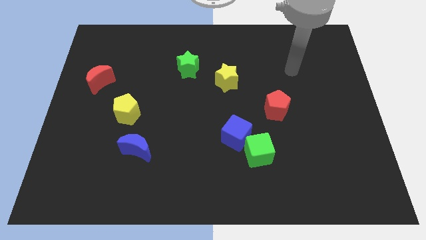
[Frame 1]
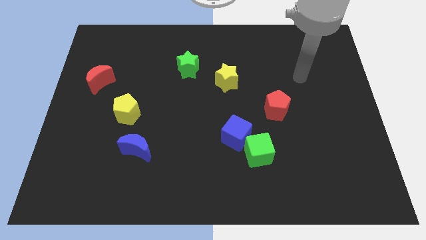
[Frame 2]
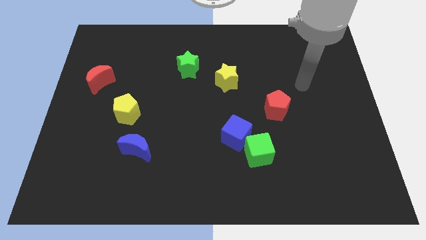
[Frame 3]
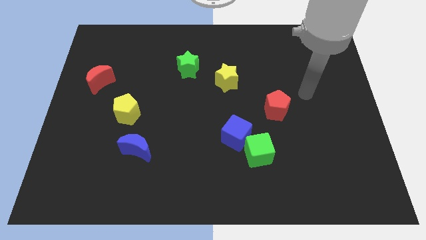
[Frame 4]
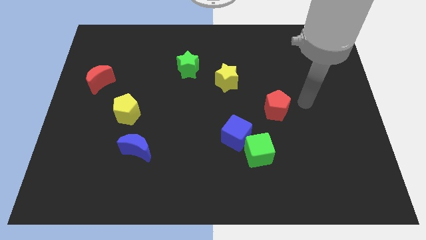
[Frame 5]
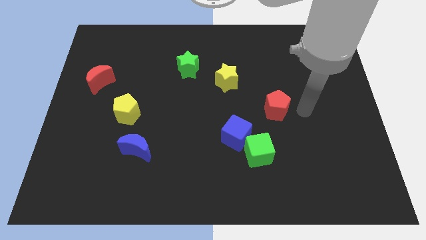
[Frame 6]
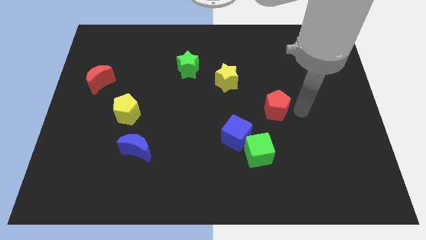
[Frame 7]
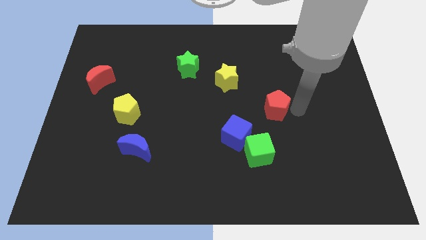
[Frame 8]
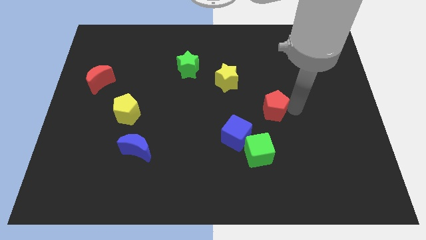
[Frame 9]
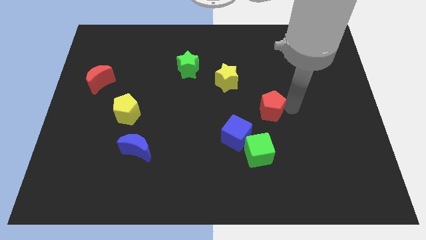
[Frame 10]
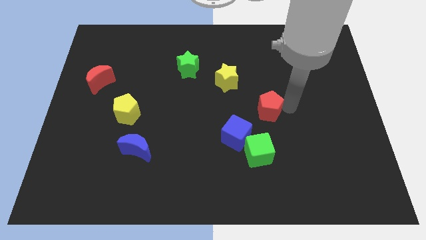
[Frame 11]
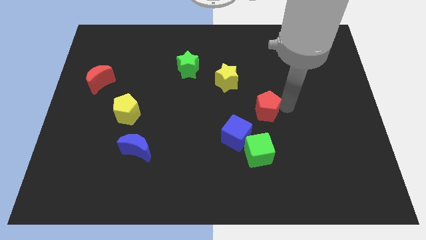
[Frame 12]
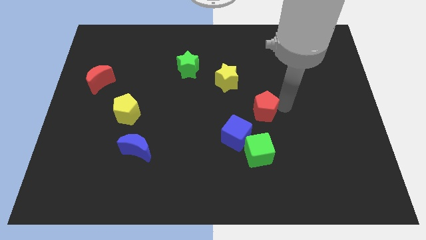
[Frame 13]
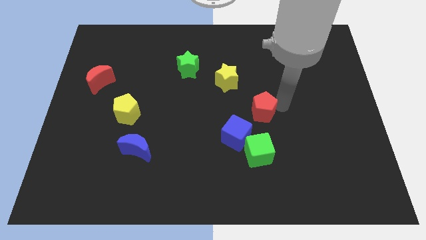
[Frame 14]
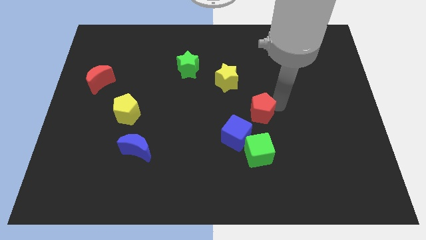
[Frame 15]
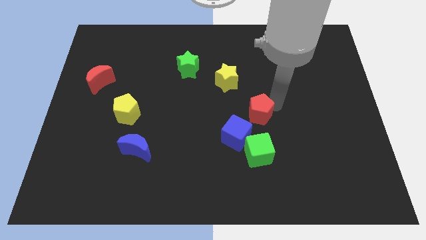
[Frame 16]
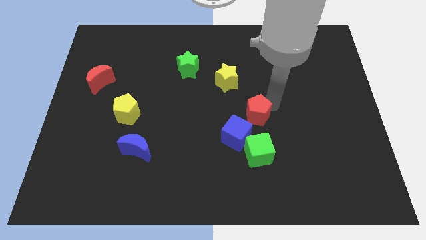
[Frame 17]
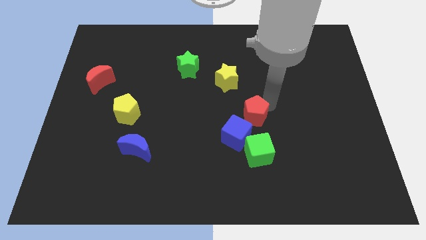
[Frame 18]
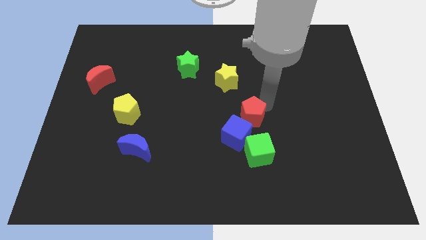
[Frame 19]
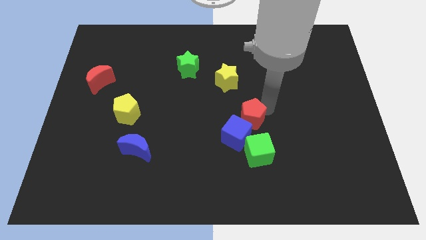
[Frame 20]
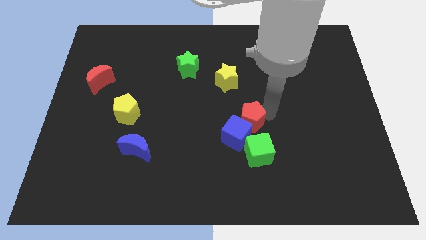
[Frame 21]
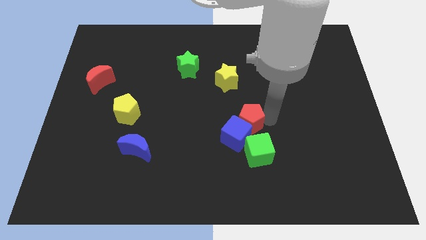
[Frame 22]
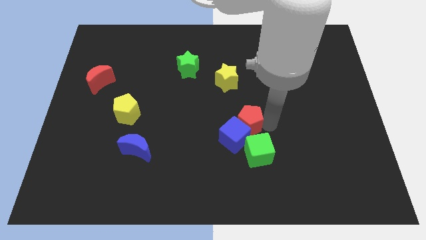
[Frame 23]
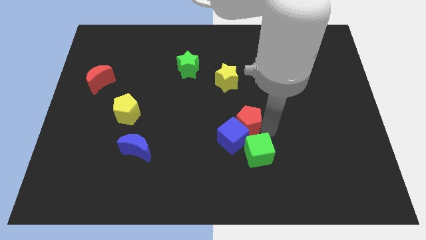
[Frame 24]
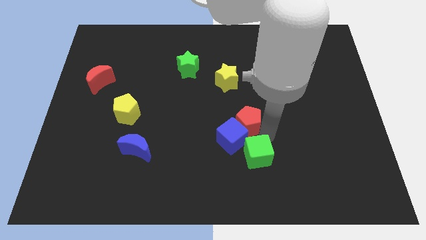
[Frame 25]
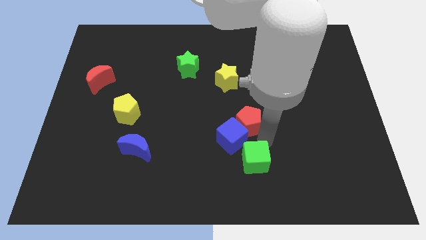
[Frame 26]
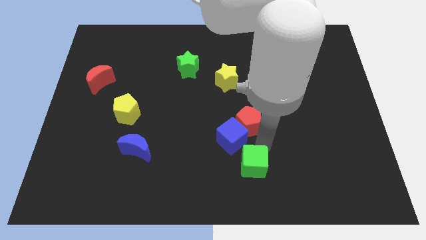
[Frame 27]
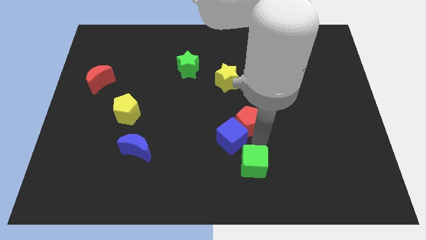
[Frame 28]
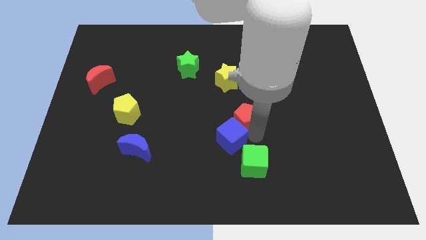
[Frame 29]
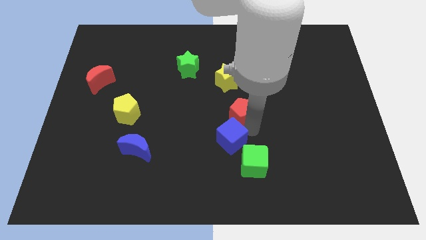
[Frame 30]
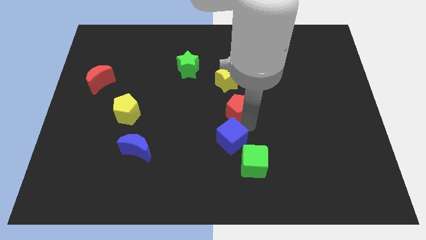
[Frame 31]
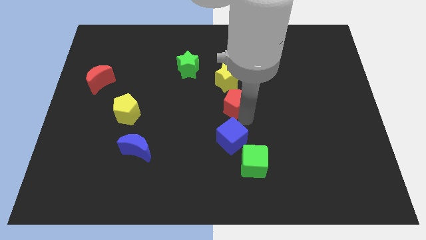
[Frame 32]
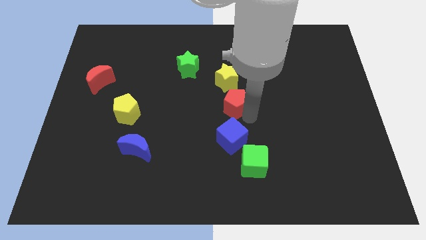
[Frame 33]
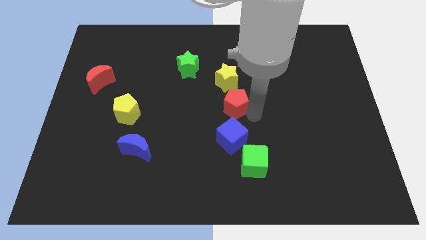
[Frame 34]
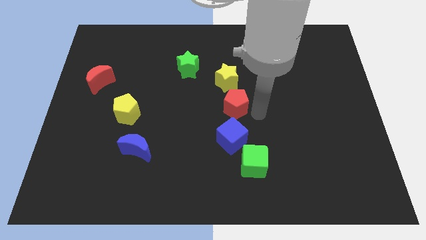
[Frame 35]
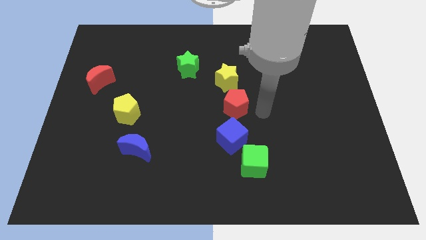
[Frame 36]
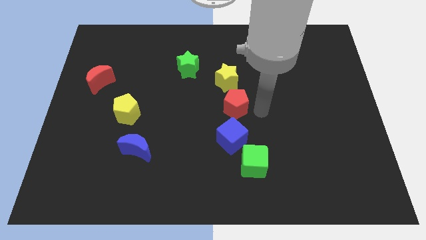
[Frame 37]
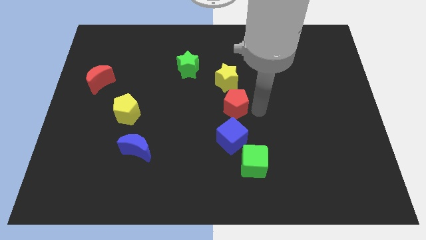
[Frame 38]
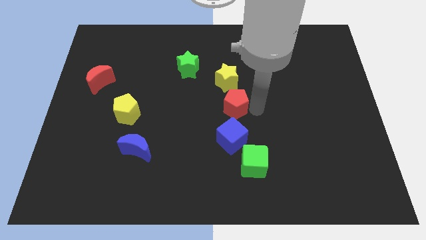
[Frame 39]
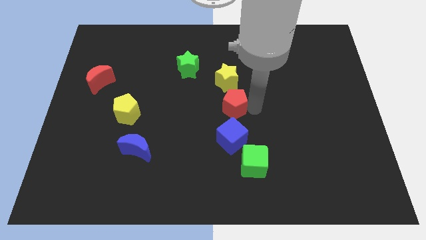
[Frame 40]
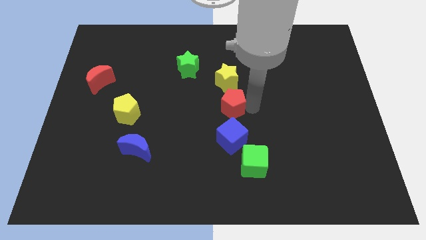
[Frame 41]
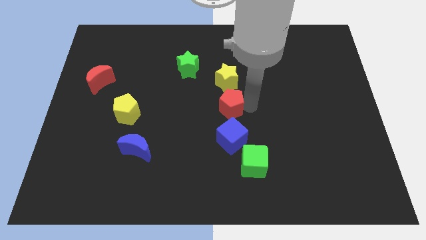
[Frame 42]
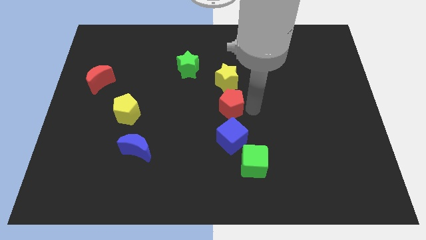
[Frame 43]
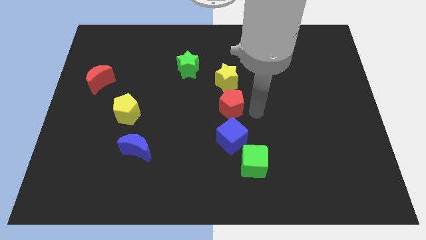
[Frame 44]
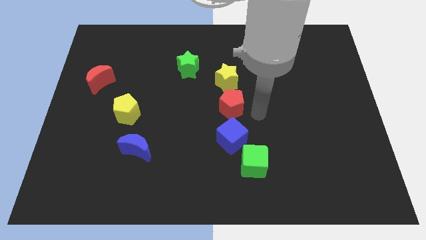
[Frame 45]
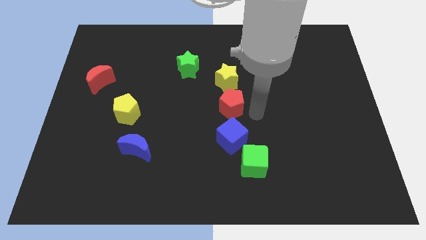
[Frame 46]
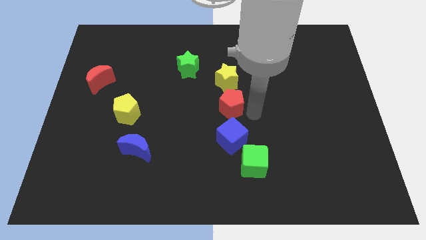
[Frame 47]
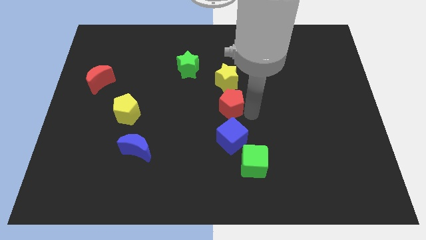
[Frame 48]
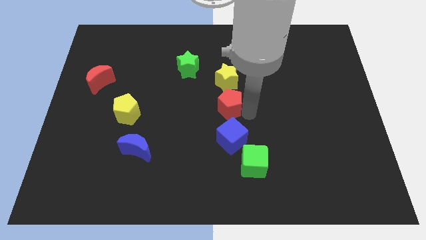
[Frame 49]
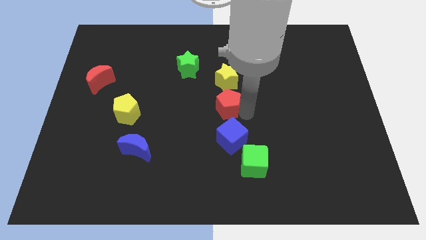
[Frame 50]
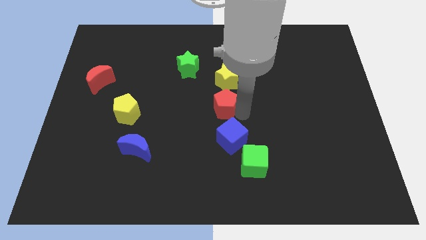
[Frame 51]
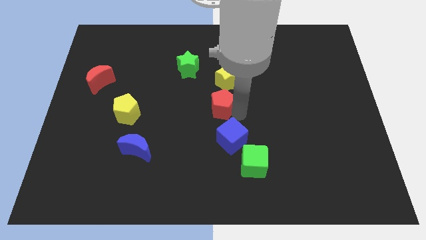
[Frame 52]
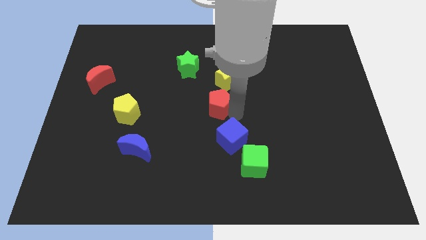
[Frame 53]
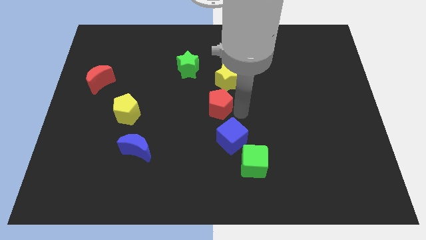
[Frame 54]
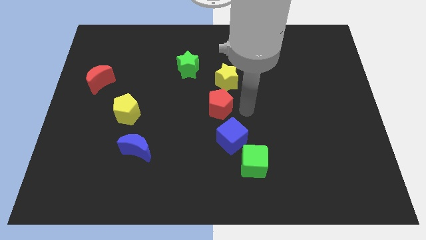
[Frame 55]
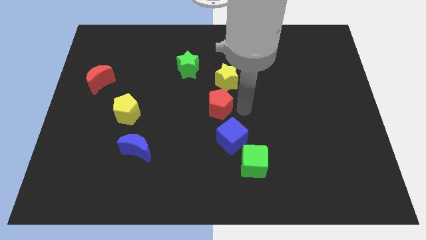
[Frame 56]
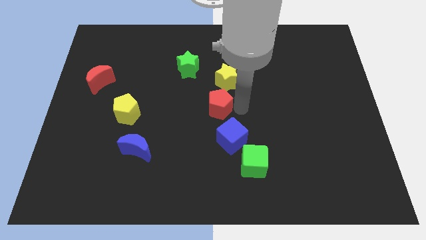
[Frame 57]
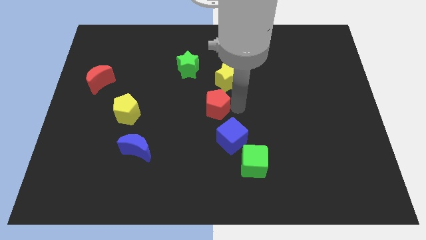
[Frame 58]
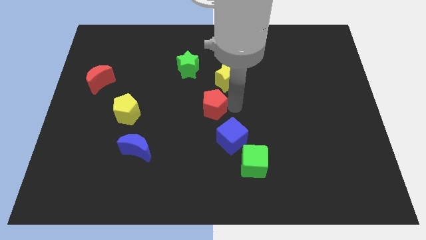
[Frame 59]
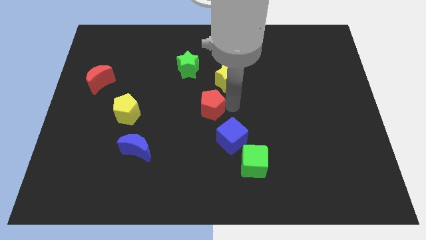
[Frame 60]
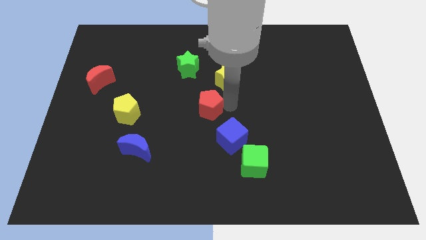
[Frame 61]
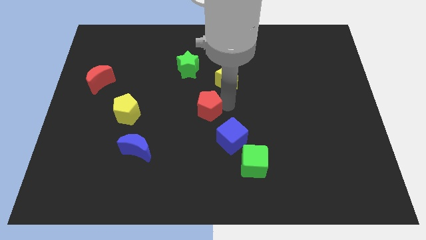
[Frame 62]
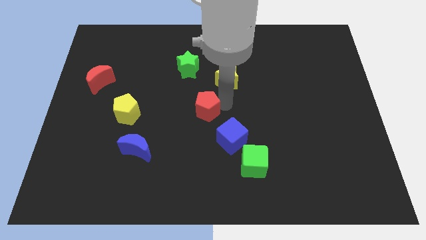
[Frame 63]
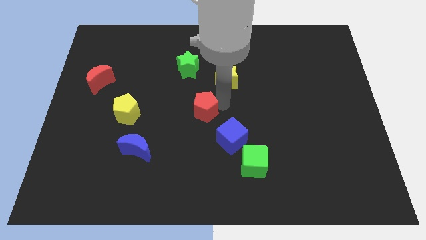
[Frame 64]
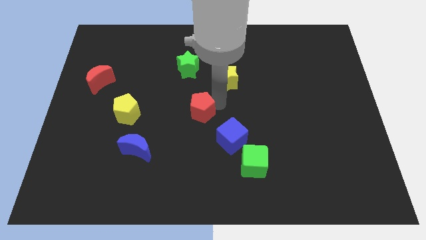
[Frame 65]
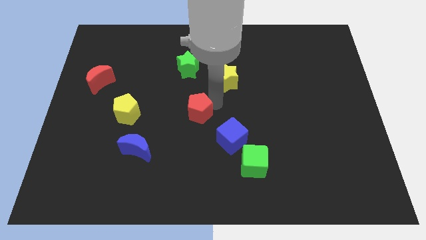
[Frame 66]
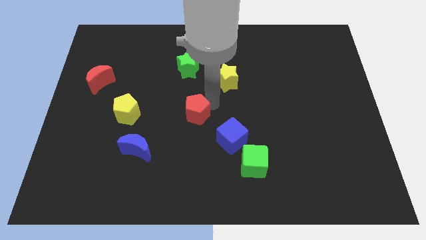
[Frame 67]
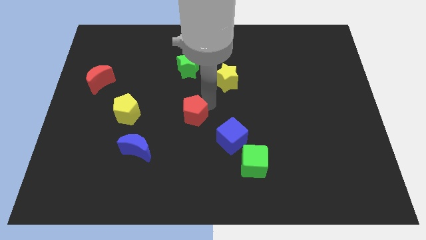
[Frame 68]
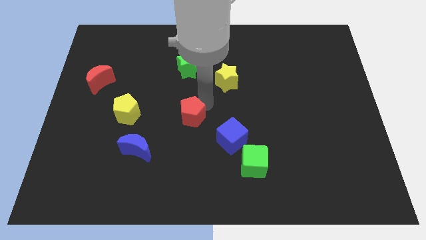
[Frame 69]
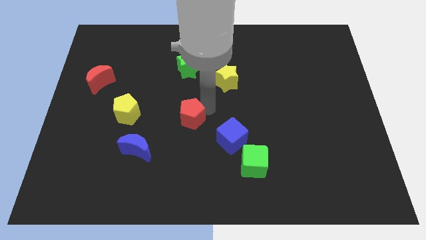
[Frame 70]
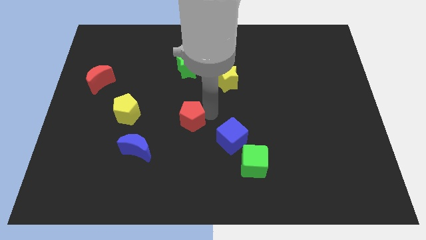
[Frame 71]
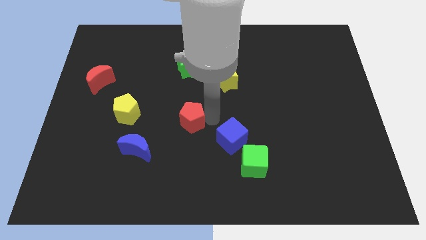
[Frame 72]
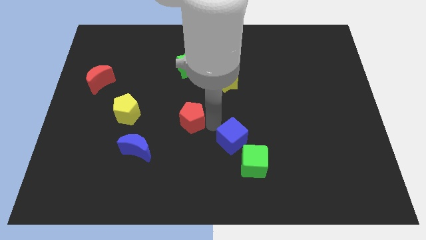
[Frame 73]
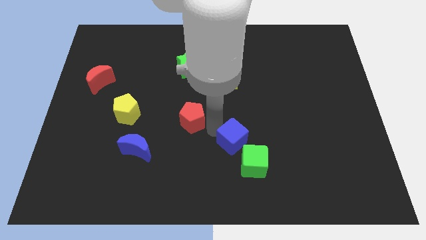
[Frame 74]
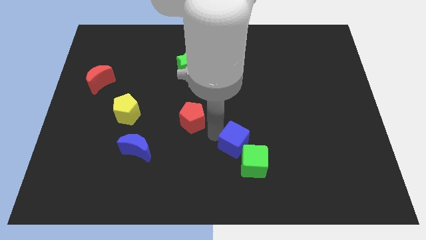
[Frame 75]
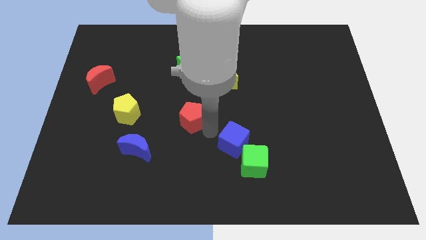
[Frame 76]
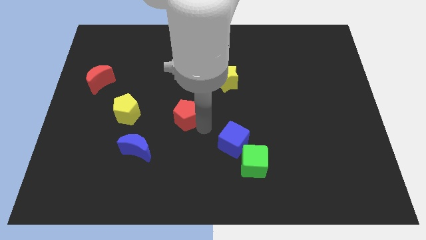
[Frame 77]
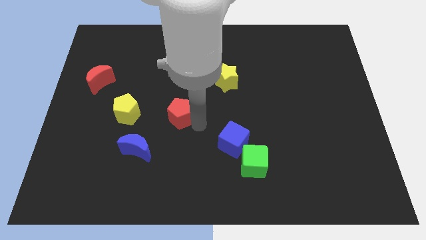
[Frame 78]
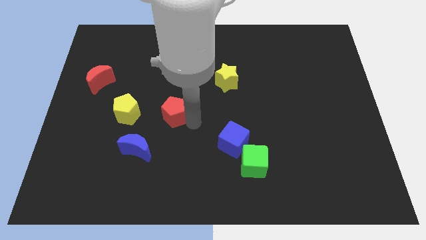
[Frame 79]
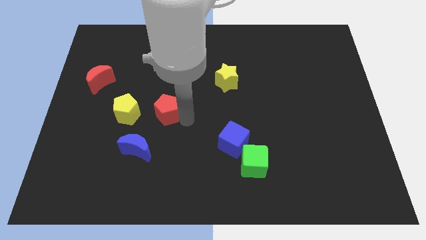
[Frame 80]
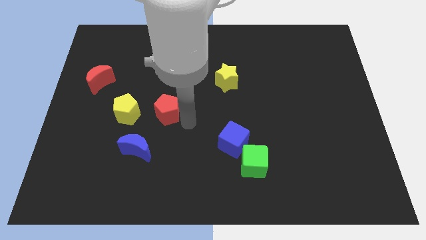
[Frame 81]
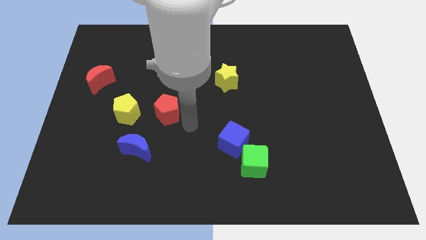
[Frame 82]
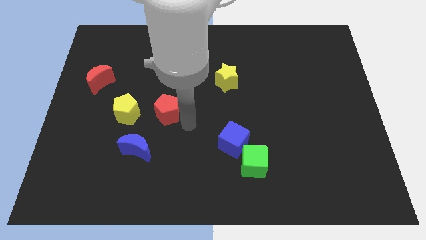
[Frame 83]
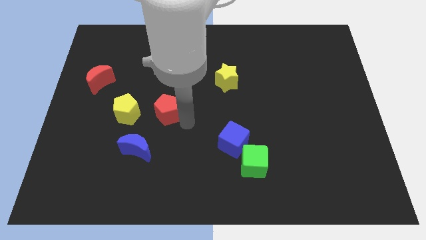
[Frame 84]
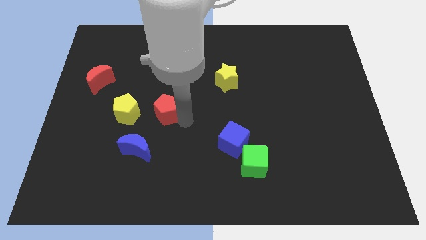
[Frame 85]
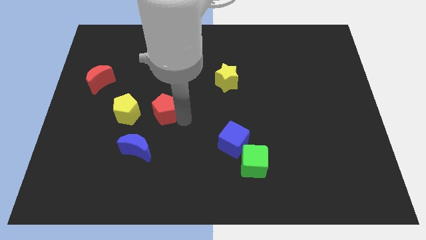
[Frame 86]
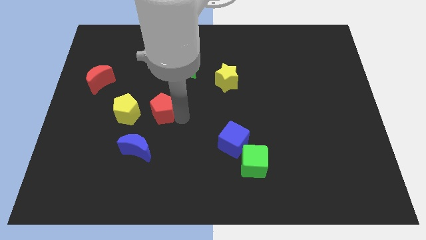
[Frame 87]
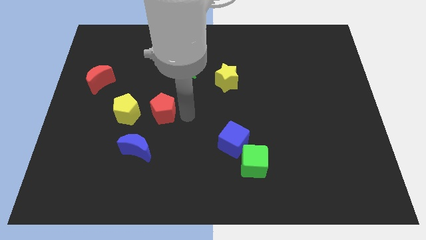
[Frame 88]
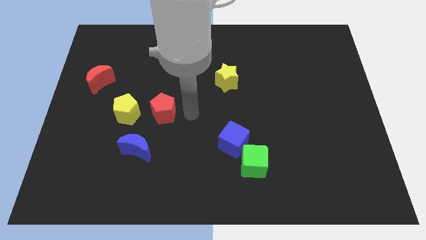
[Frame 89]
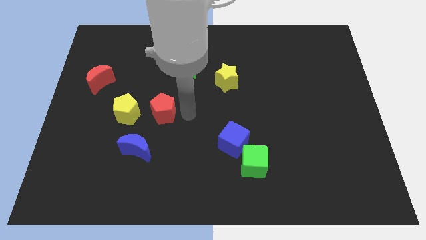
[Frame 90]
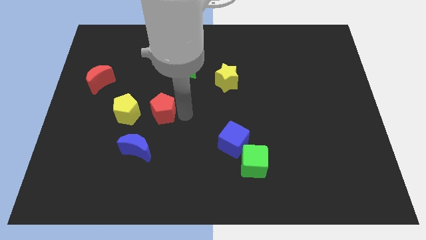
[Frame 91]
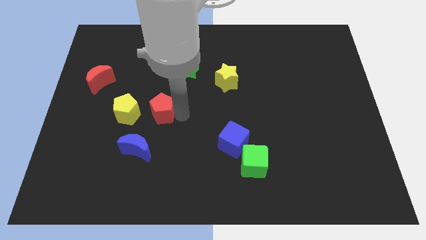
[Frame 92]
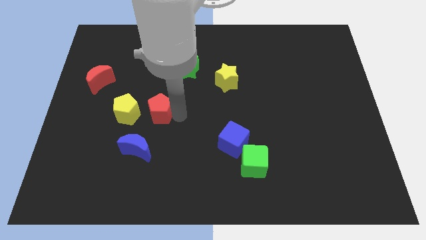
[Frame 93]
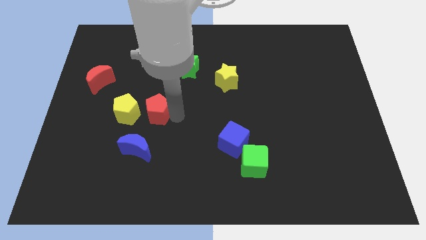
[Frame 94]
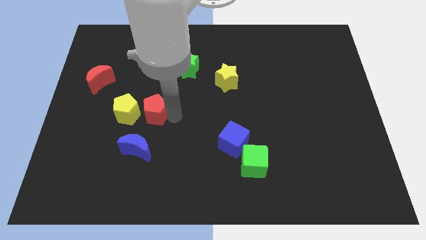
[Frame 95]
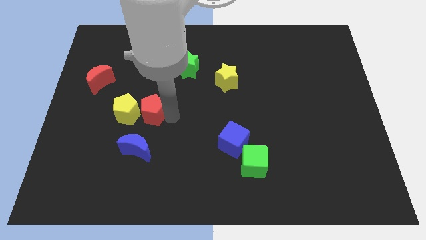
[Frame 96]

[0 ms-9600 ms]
move the red pentagon close to the yellow pentagon
